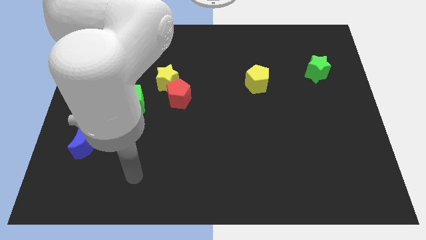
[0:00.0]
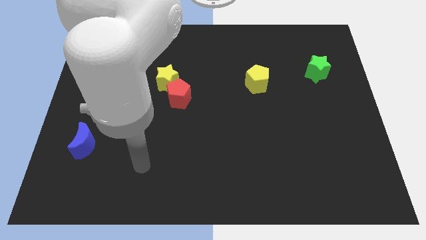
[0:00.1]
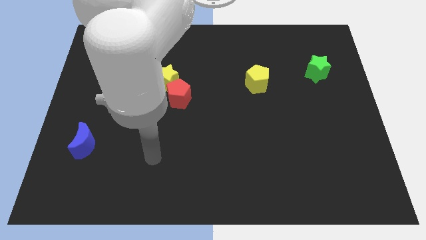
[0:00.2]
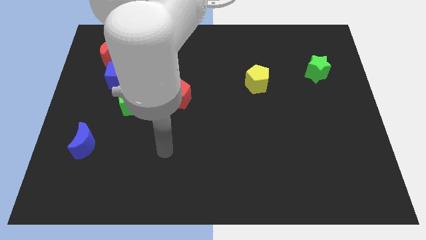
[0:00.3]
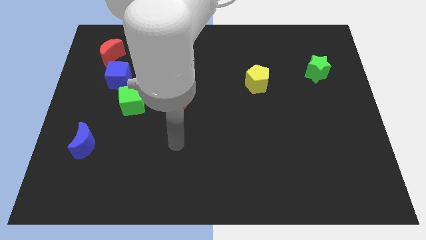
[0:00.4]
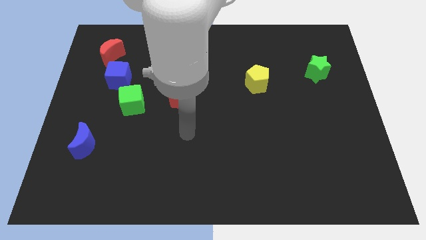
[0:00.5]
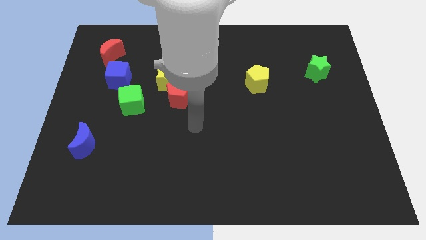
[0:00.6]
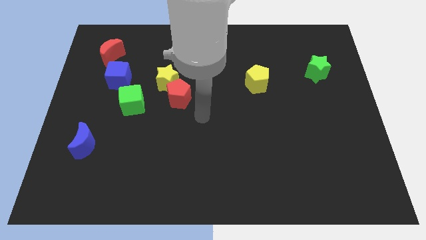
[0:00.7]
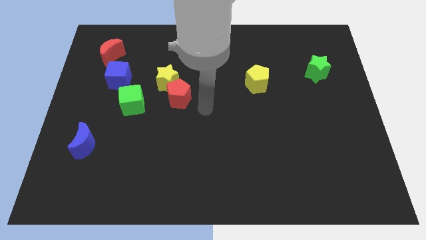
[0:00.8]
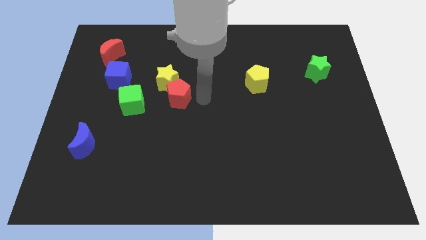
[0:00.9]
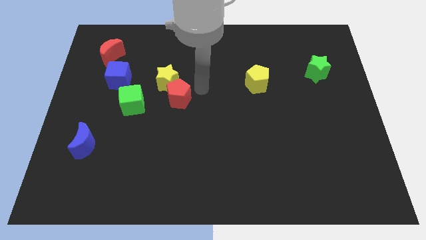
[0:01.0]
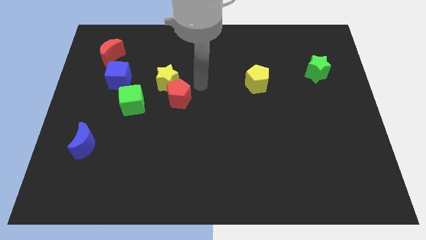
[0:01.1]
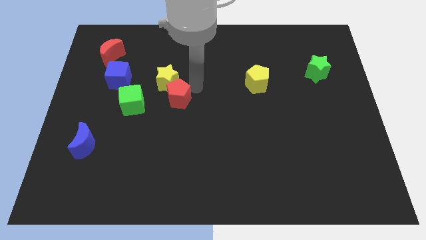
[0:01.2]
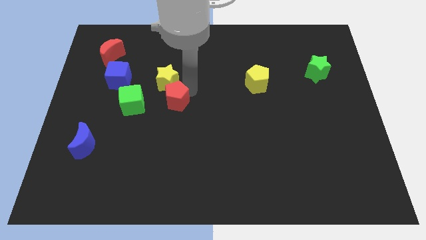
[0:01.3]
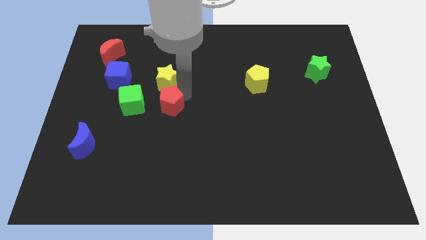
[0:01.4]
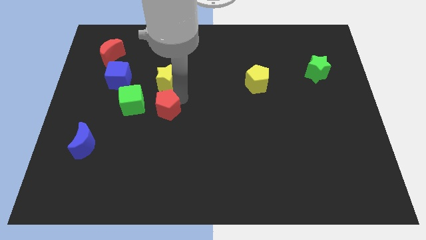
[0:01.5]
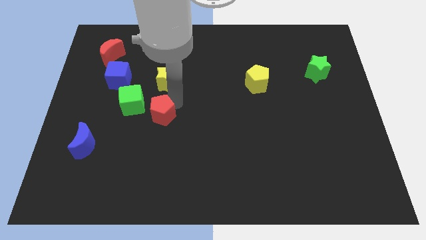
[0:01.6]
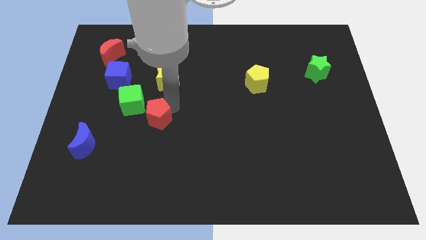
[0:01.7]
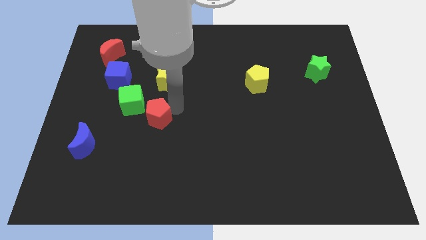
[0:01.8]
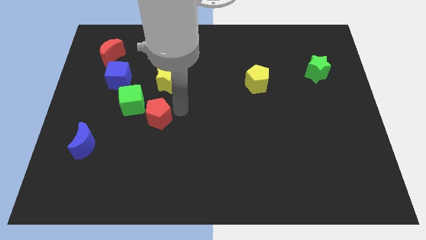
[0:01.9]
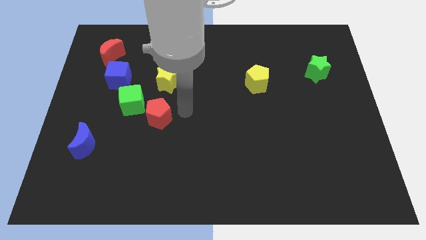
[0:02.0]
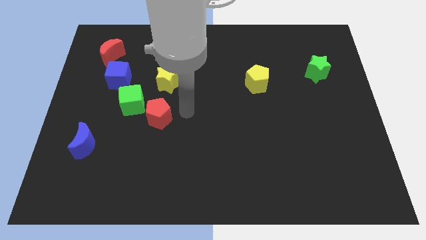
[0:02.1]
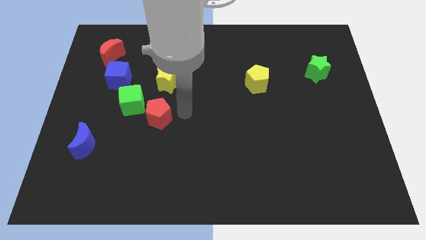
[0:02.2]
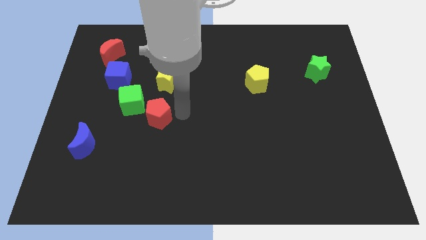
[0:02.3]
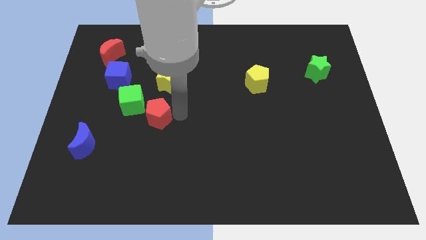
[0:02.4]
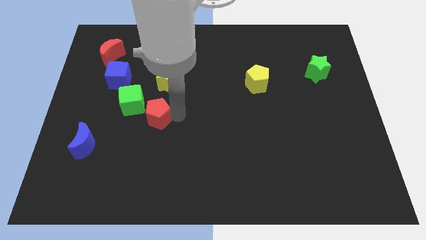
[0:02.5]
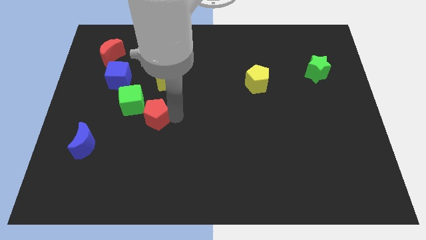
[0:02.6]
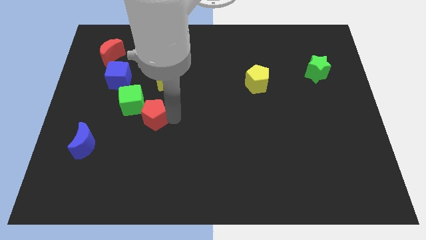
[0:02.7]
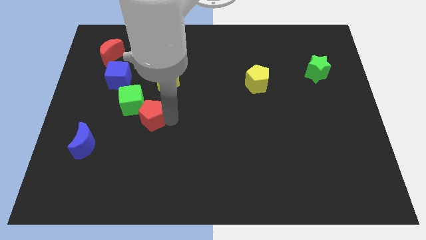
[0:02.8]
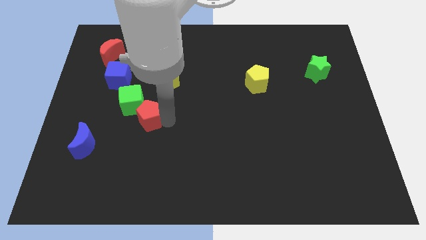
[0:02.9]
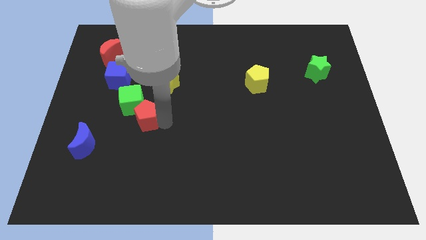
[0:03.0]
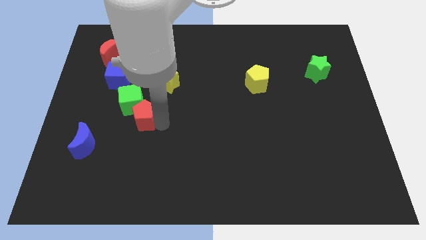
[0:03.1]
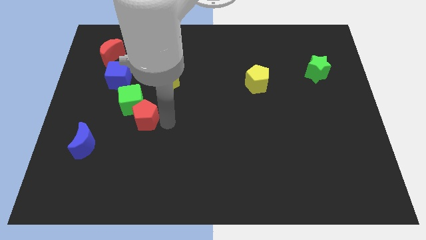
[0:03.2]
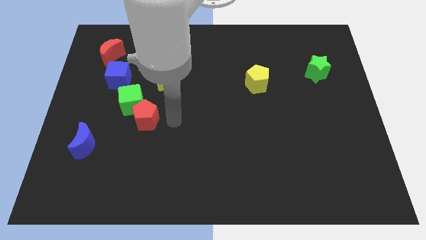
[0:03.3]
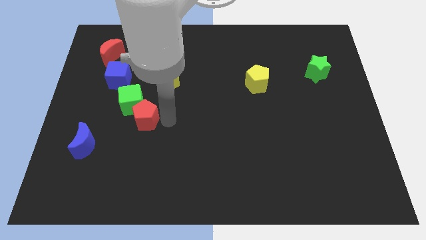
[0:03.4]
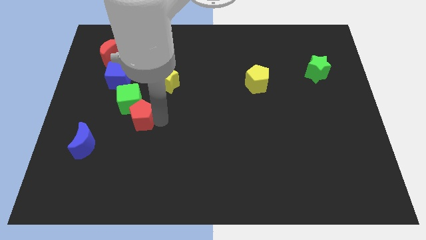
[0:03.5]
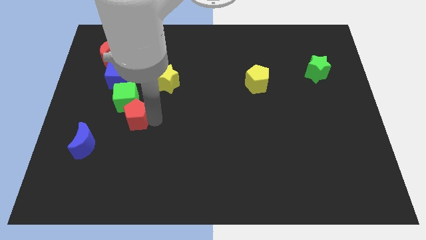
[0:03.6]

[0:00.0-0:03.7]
slightly slide the red pentagon left
